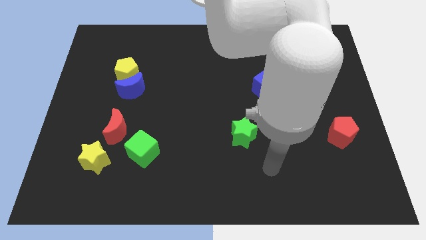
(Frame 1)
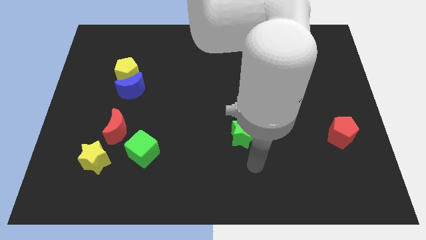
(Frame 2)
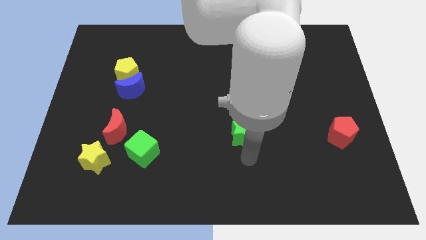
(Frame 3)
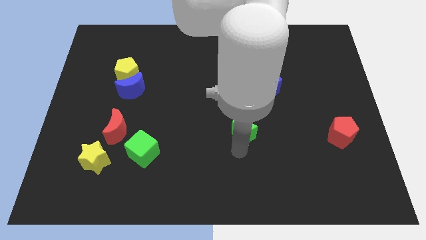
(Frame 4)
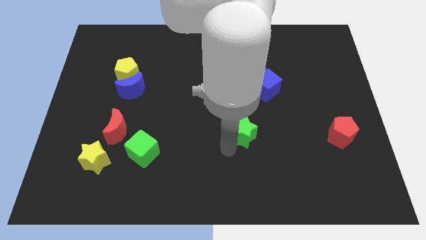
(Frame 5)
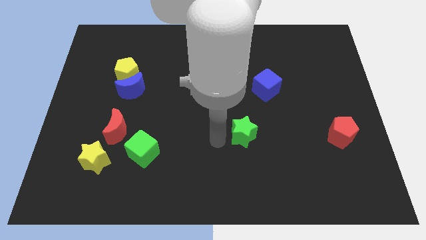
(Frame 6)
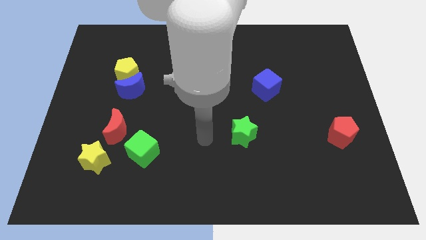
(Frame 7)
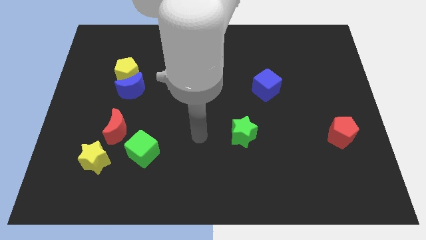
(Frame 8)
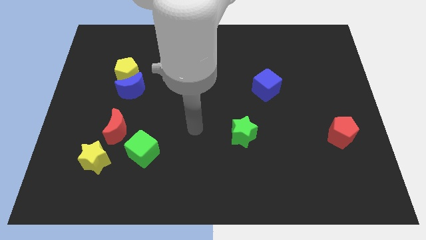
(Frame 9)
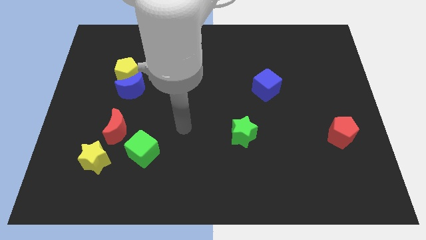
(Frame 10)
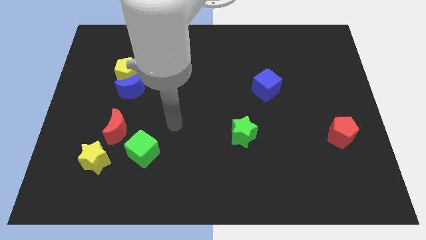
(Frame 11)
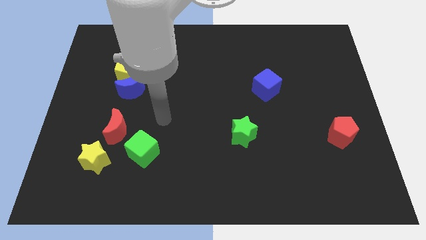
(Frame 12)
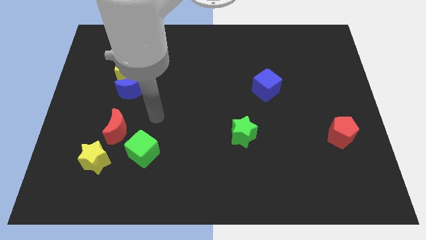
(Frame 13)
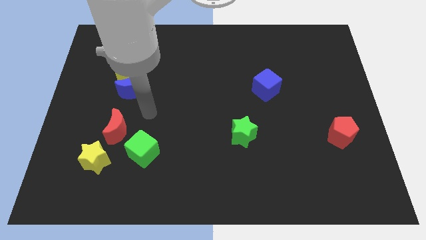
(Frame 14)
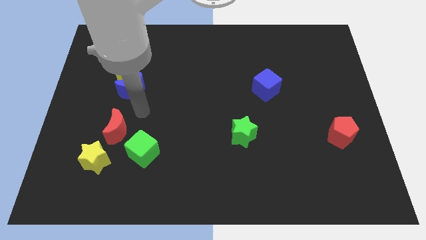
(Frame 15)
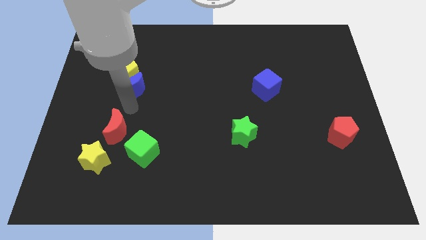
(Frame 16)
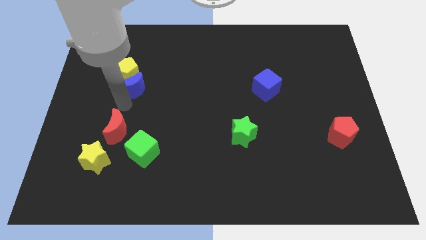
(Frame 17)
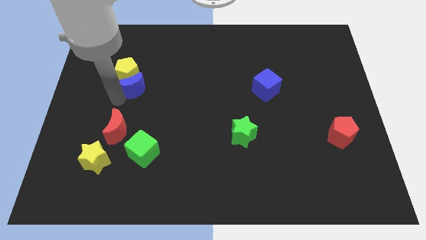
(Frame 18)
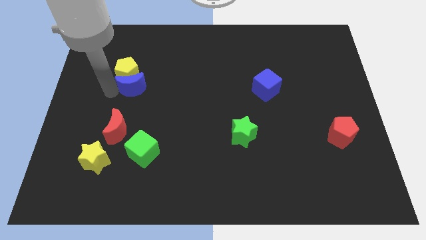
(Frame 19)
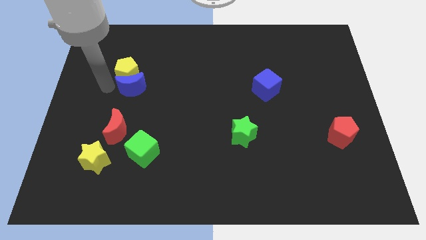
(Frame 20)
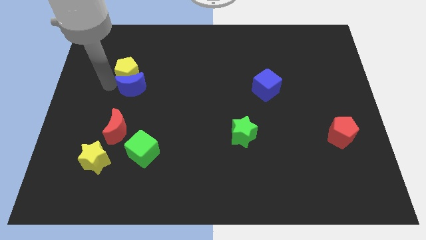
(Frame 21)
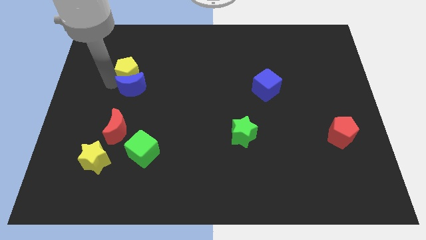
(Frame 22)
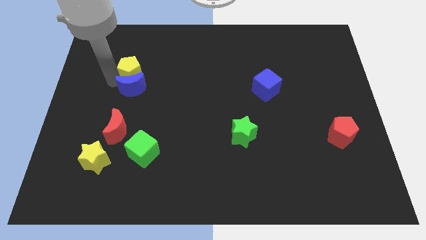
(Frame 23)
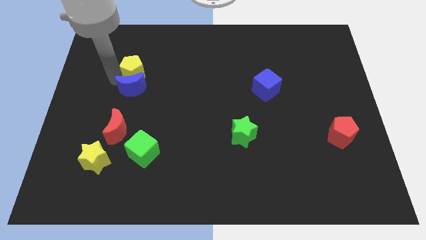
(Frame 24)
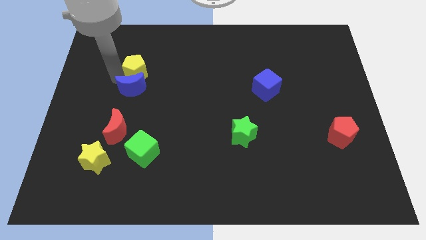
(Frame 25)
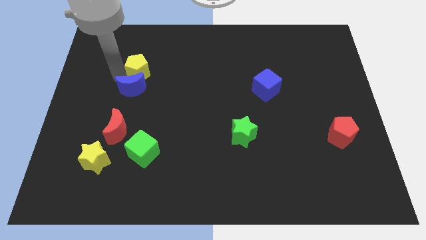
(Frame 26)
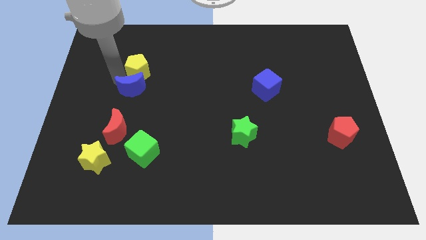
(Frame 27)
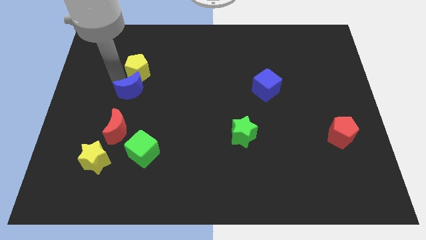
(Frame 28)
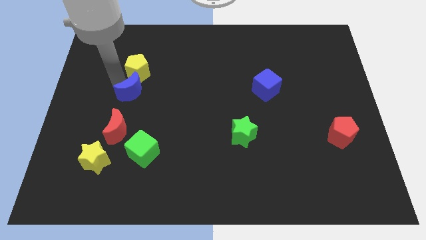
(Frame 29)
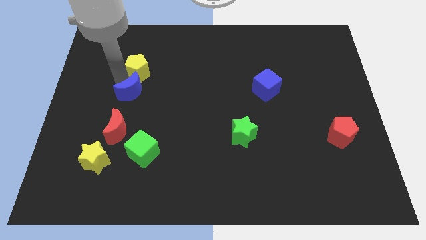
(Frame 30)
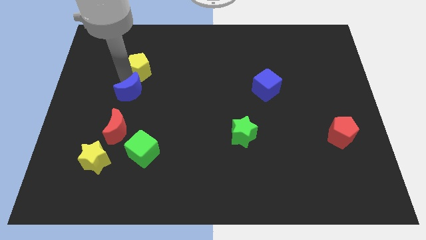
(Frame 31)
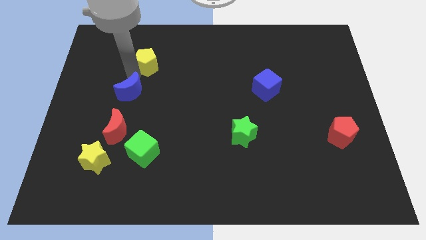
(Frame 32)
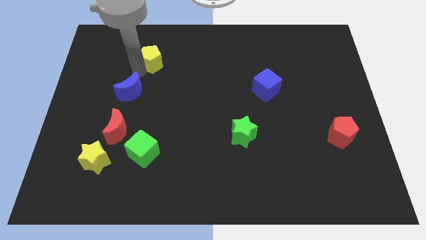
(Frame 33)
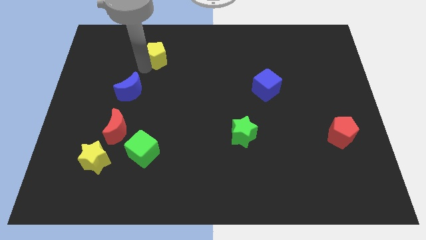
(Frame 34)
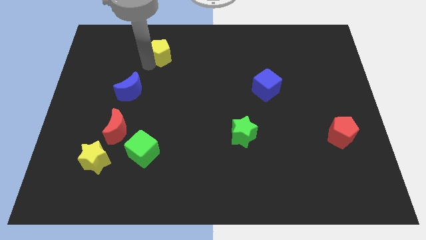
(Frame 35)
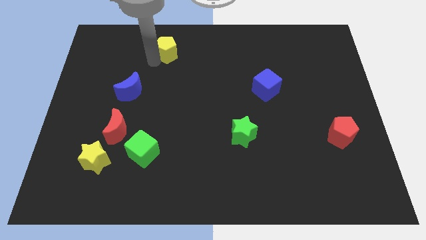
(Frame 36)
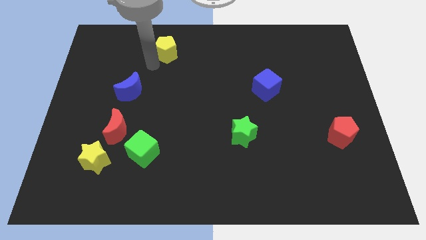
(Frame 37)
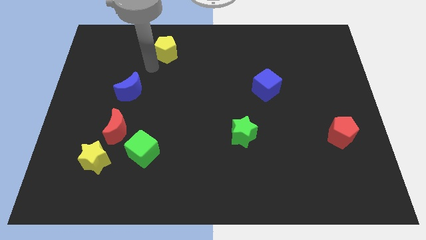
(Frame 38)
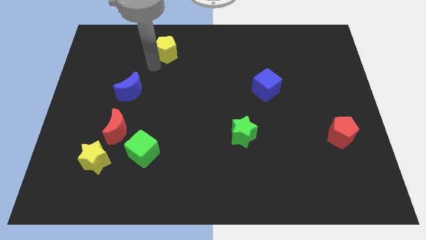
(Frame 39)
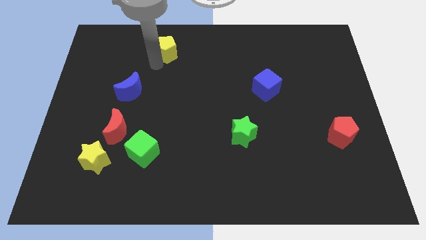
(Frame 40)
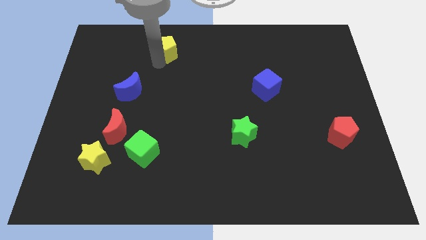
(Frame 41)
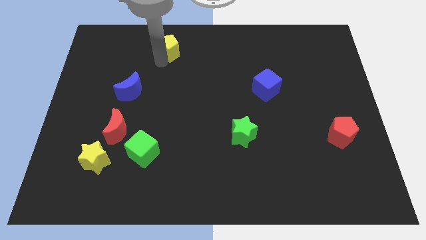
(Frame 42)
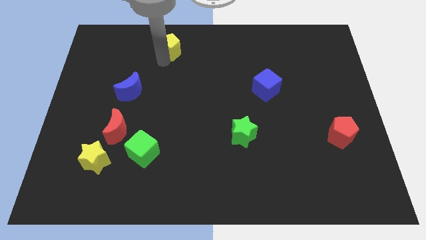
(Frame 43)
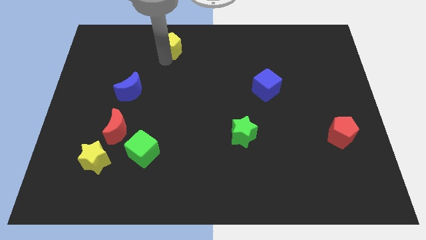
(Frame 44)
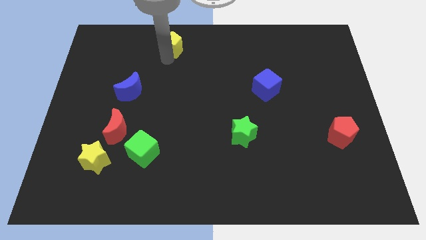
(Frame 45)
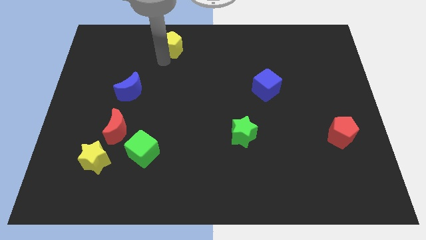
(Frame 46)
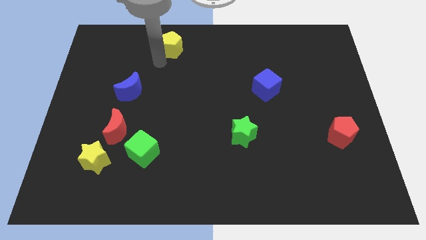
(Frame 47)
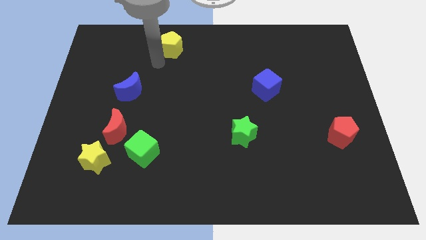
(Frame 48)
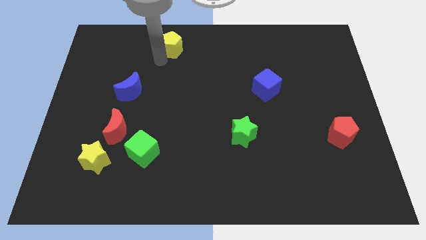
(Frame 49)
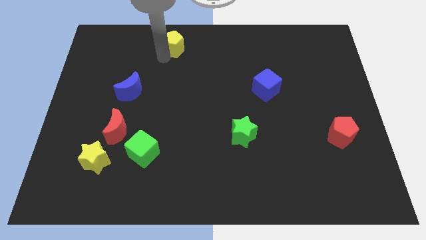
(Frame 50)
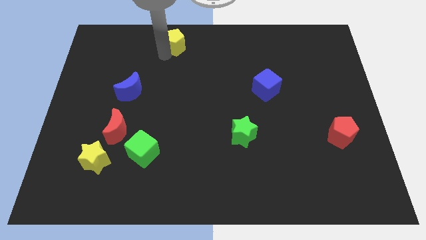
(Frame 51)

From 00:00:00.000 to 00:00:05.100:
push the yellow pentagon to the towards your base
